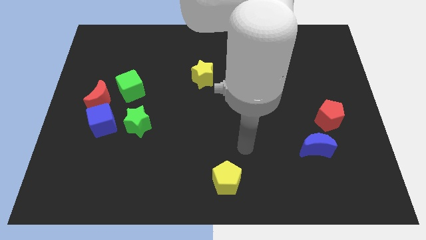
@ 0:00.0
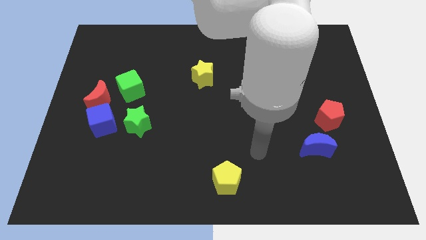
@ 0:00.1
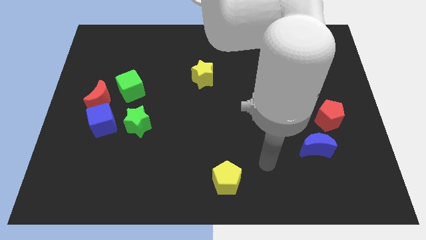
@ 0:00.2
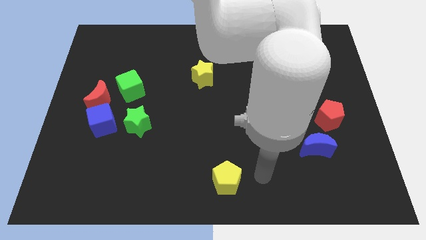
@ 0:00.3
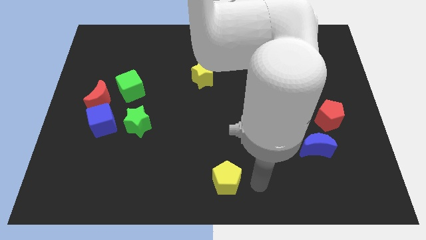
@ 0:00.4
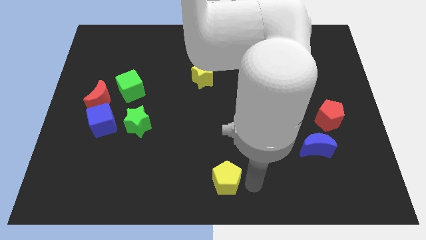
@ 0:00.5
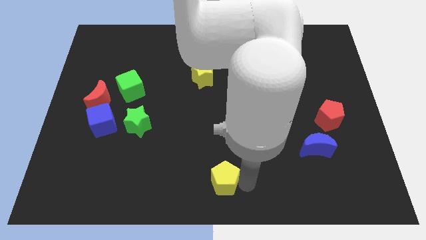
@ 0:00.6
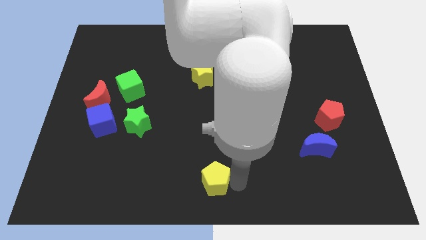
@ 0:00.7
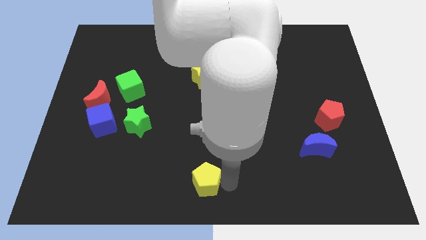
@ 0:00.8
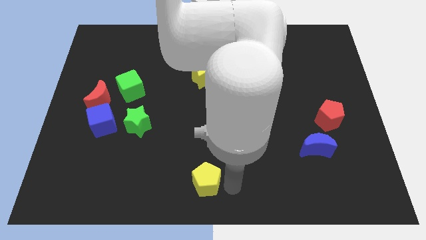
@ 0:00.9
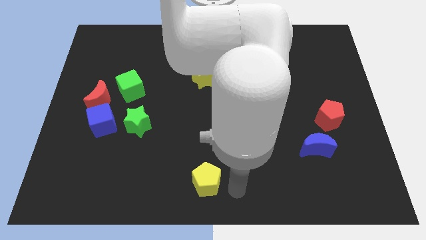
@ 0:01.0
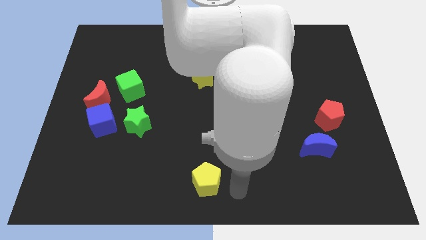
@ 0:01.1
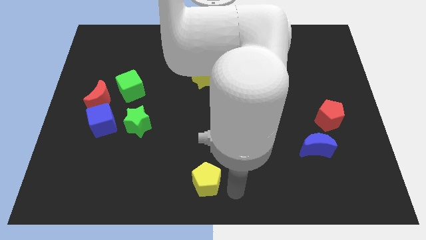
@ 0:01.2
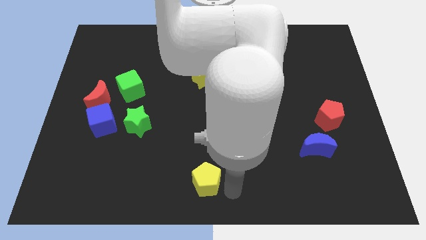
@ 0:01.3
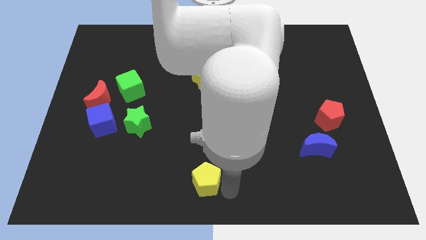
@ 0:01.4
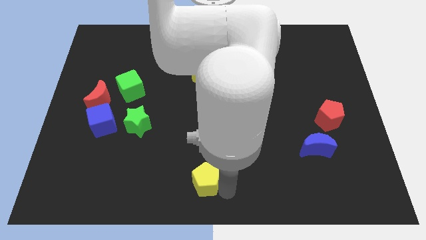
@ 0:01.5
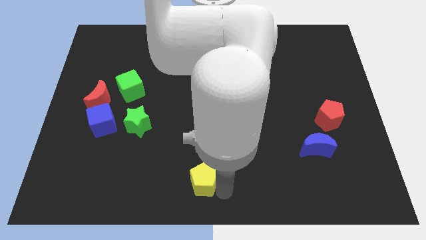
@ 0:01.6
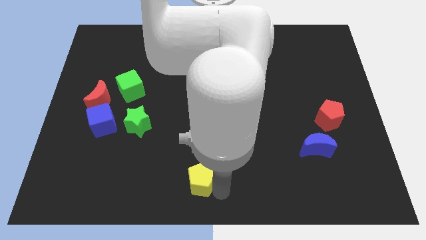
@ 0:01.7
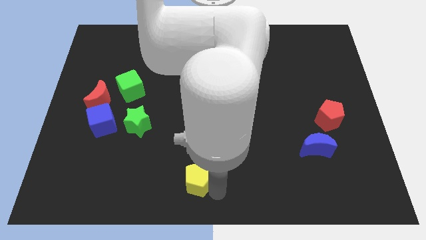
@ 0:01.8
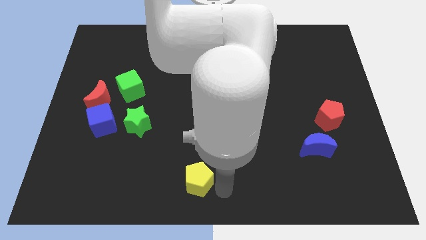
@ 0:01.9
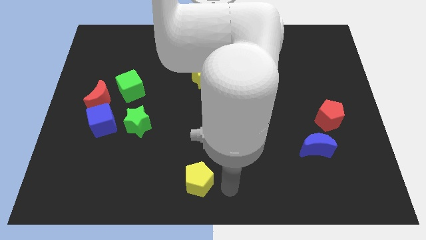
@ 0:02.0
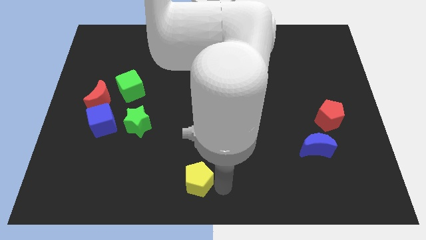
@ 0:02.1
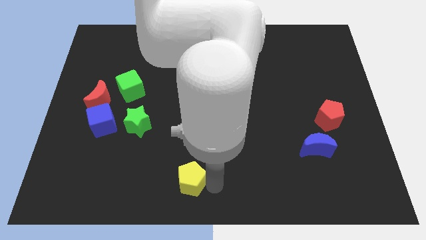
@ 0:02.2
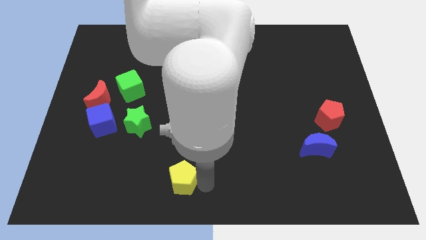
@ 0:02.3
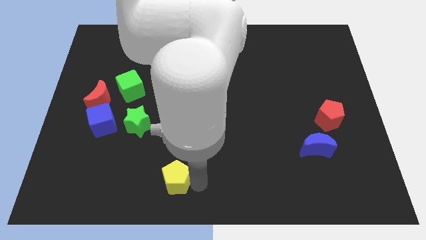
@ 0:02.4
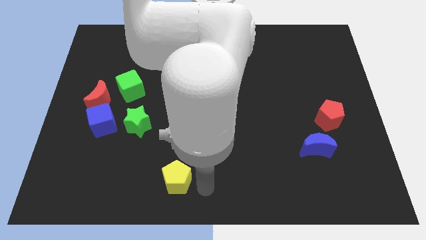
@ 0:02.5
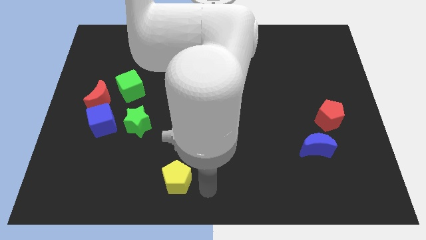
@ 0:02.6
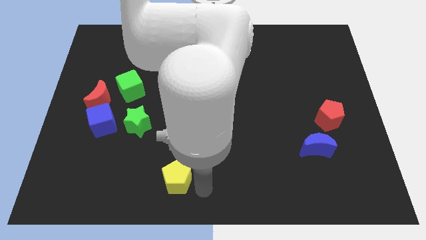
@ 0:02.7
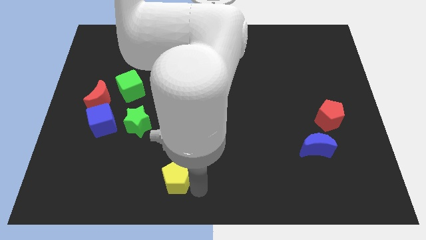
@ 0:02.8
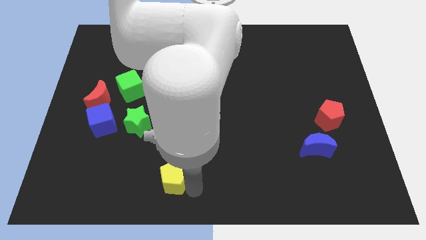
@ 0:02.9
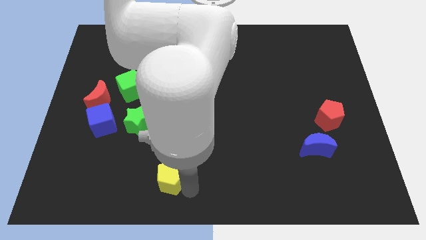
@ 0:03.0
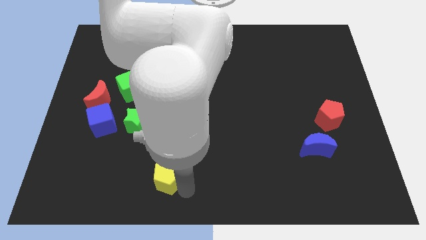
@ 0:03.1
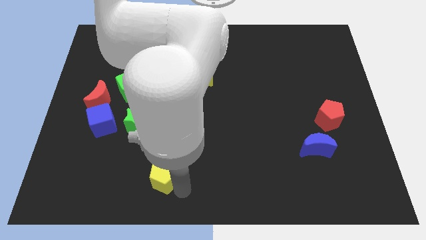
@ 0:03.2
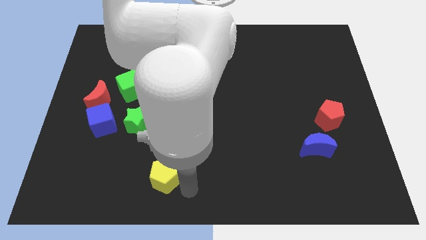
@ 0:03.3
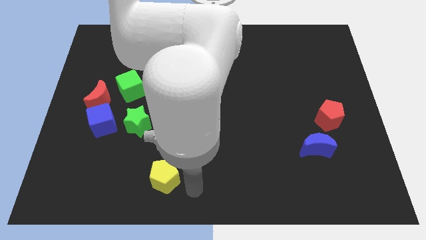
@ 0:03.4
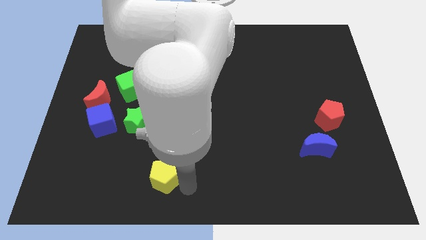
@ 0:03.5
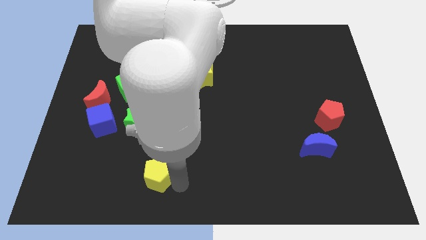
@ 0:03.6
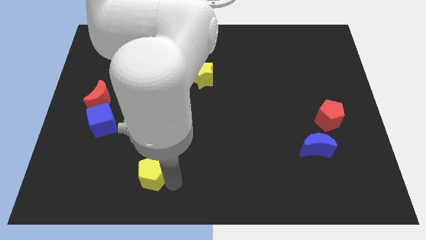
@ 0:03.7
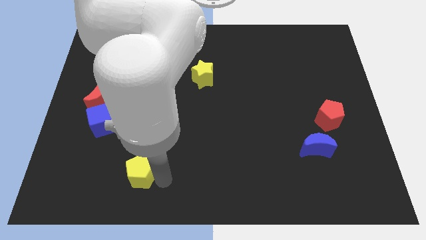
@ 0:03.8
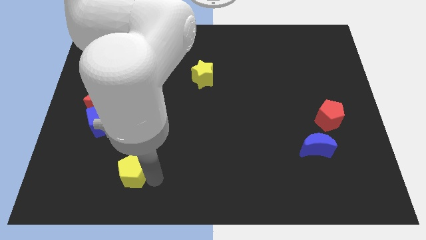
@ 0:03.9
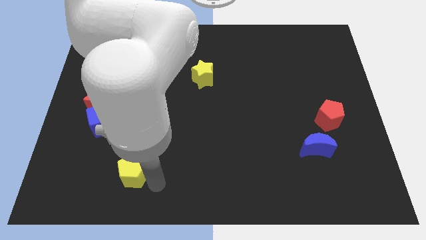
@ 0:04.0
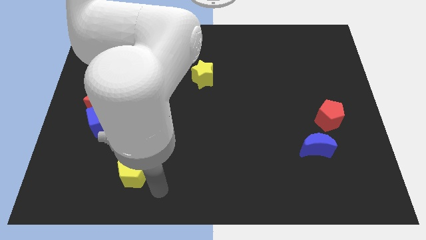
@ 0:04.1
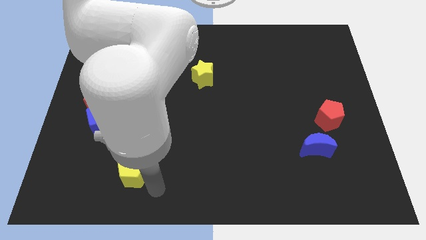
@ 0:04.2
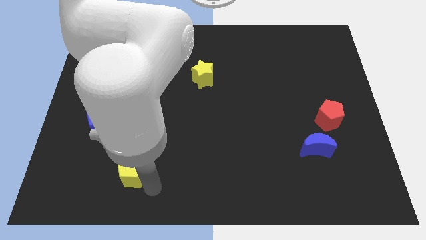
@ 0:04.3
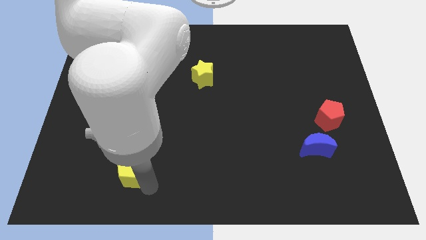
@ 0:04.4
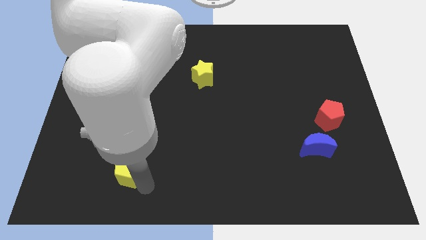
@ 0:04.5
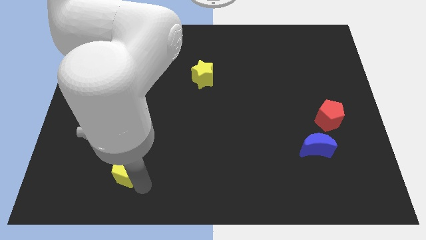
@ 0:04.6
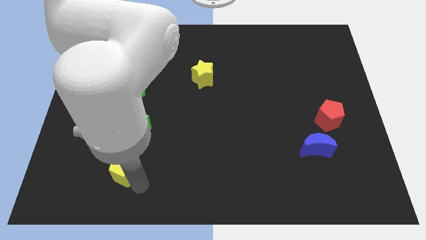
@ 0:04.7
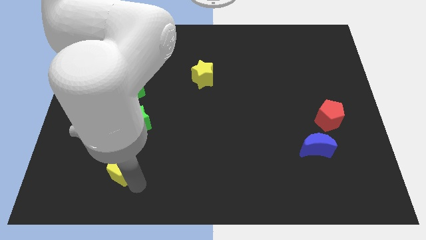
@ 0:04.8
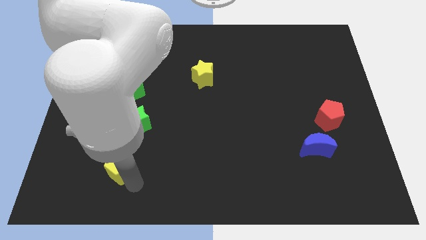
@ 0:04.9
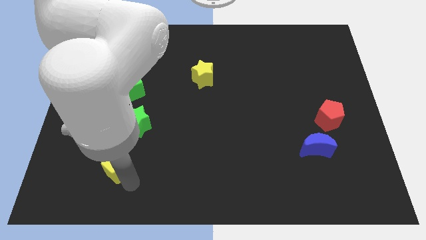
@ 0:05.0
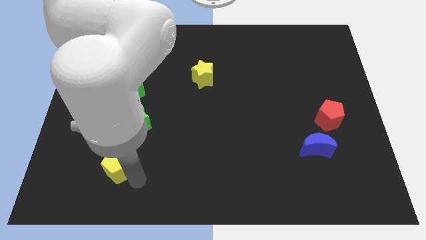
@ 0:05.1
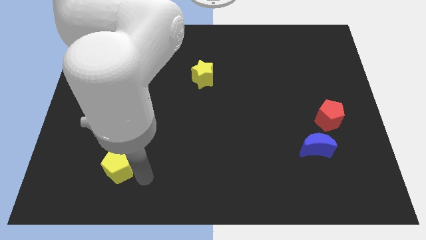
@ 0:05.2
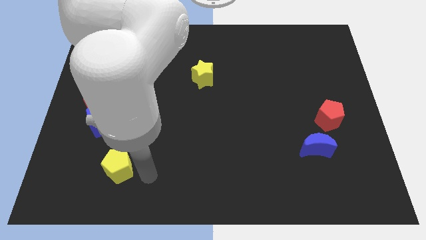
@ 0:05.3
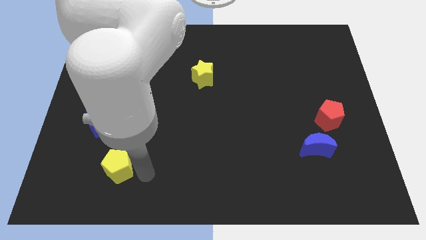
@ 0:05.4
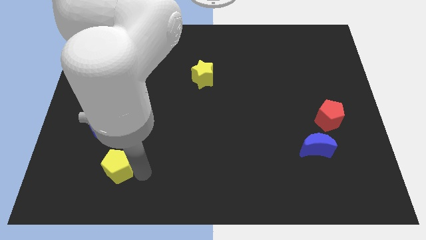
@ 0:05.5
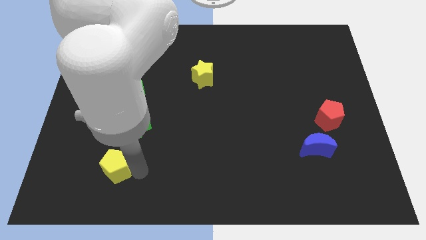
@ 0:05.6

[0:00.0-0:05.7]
move the yellow pentagon to the bottom of the blue cube

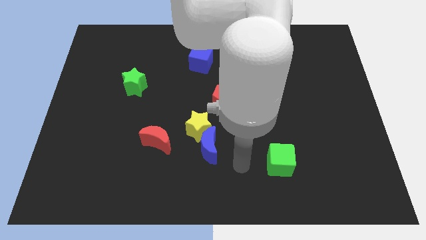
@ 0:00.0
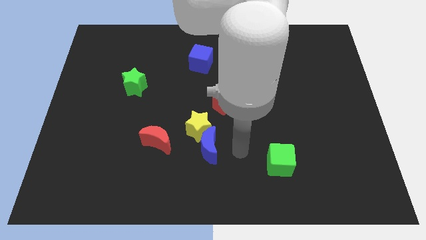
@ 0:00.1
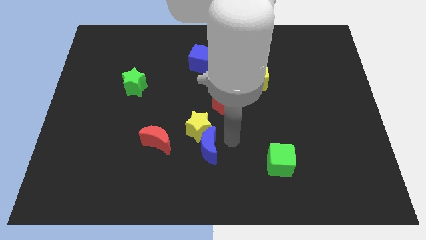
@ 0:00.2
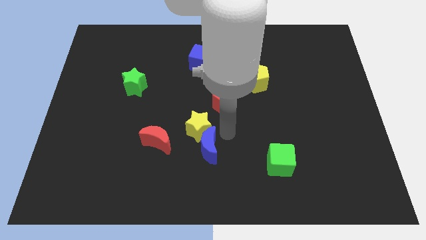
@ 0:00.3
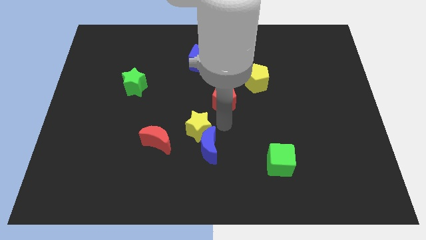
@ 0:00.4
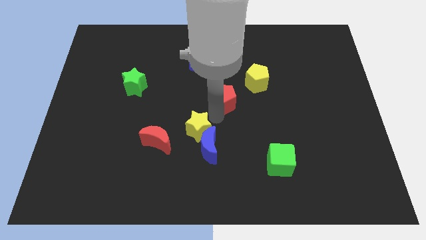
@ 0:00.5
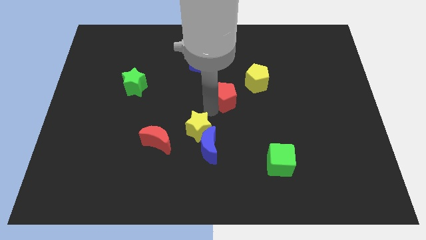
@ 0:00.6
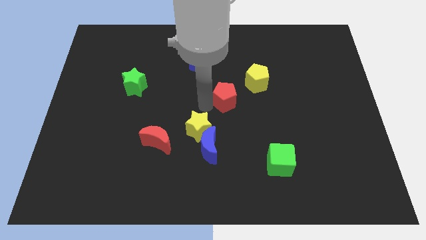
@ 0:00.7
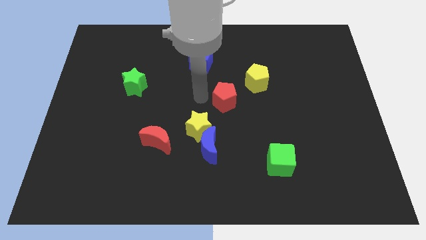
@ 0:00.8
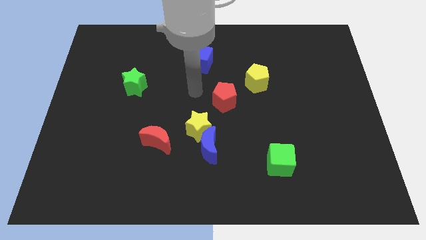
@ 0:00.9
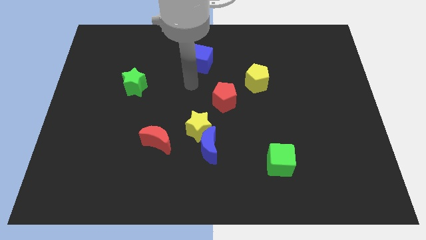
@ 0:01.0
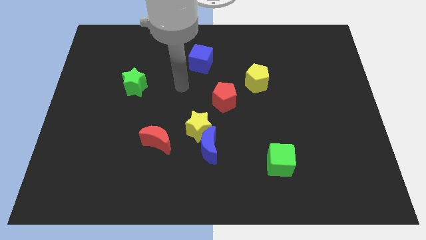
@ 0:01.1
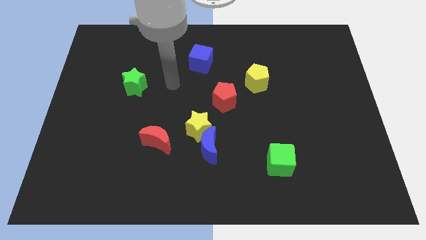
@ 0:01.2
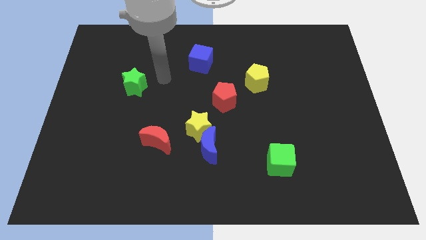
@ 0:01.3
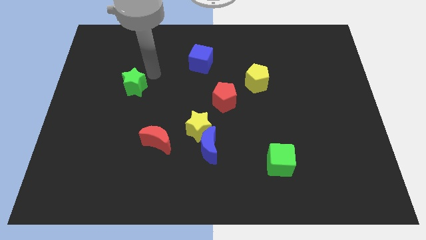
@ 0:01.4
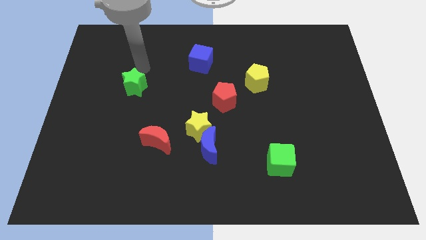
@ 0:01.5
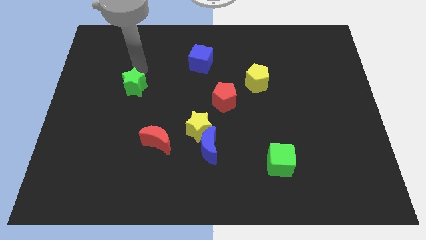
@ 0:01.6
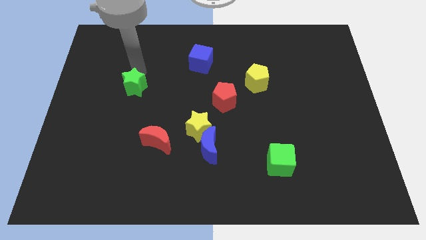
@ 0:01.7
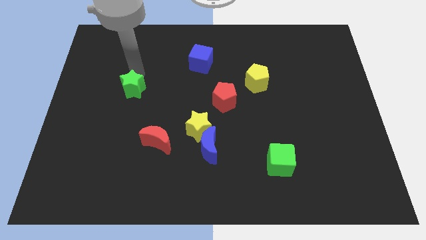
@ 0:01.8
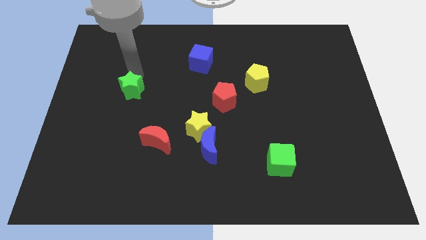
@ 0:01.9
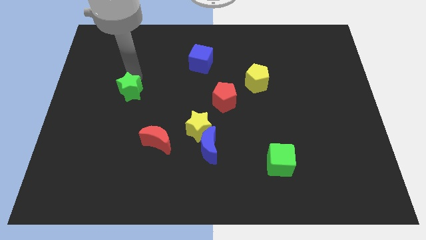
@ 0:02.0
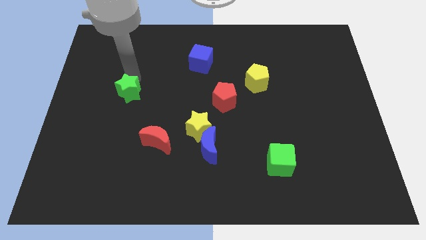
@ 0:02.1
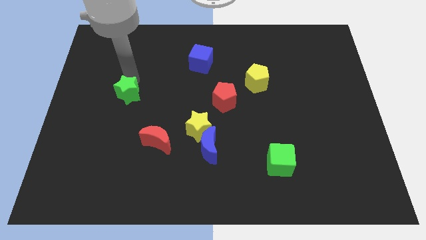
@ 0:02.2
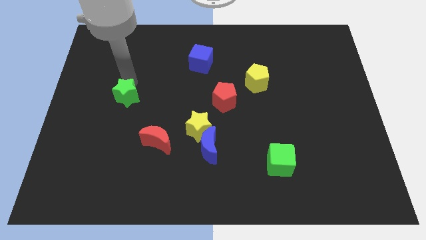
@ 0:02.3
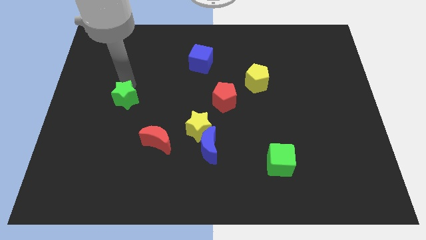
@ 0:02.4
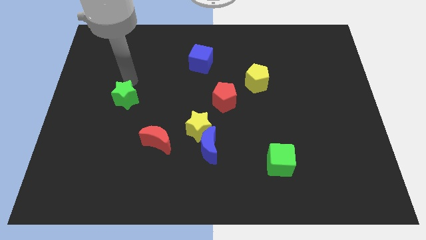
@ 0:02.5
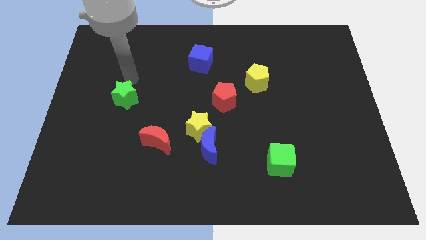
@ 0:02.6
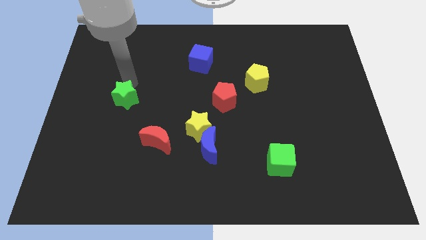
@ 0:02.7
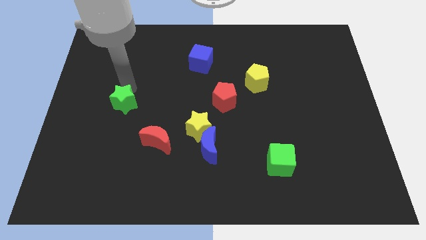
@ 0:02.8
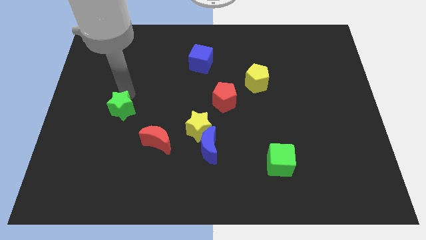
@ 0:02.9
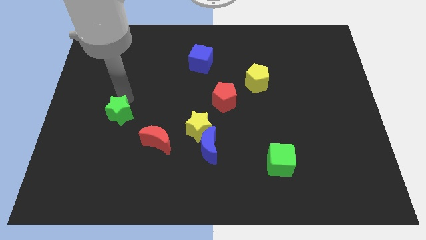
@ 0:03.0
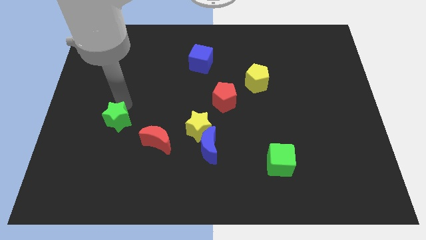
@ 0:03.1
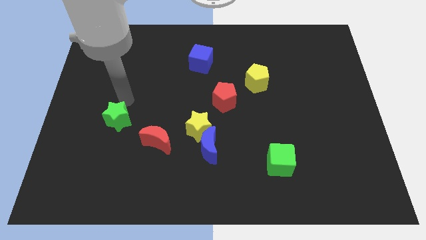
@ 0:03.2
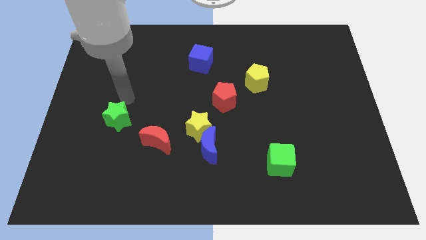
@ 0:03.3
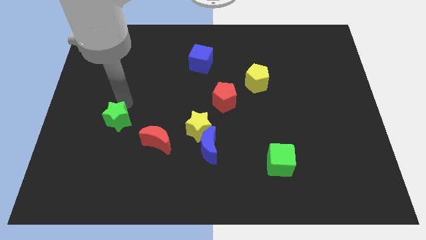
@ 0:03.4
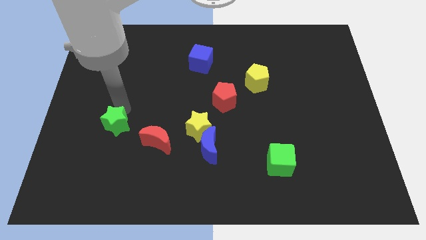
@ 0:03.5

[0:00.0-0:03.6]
slide the green star just left of the red moon
